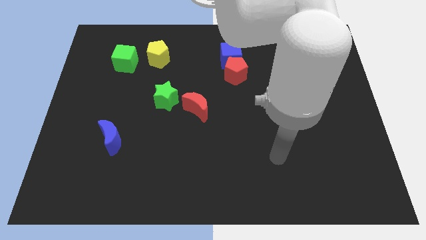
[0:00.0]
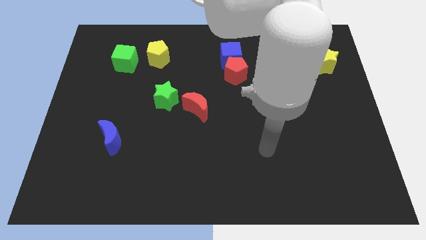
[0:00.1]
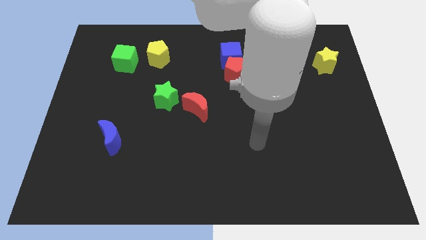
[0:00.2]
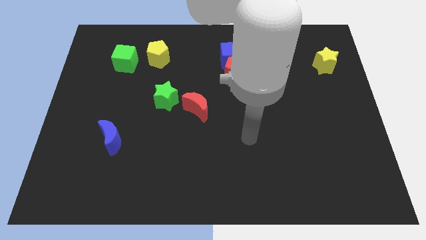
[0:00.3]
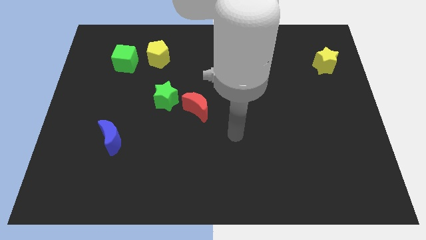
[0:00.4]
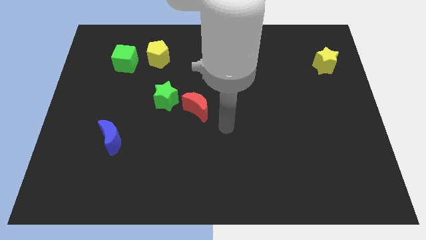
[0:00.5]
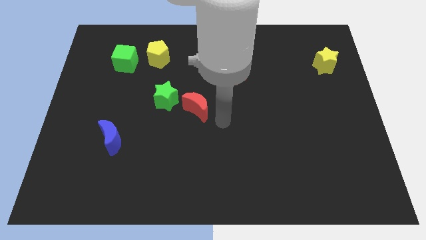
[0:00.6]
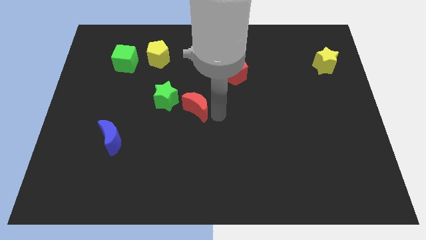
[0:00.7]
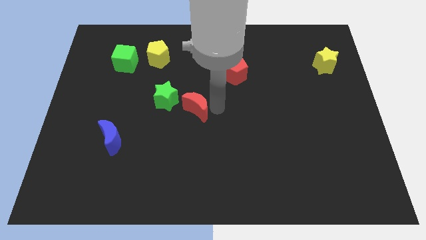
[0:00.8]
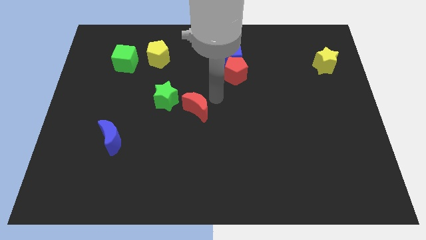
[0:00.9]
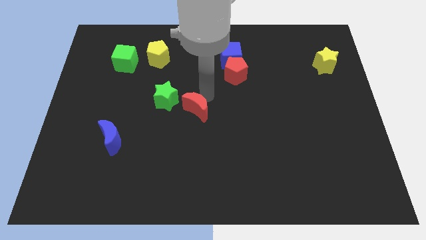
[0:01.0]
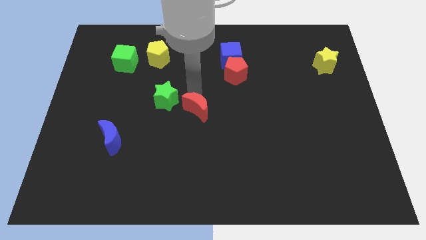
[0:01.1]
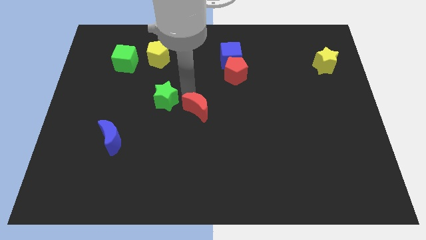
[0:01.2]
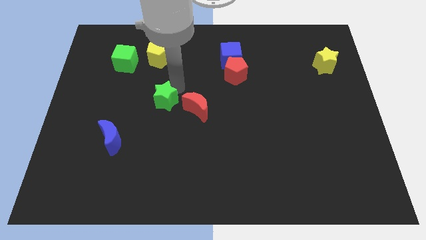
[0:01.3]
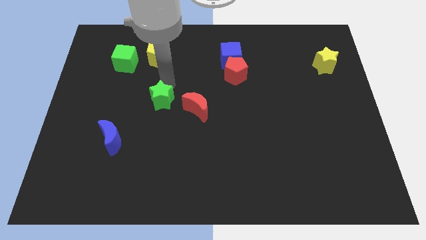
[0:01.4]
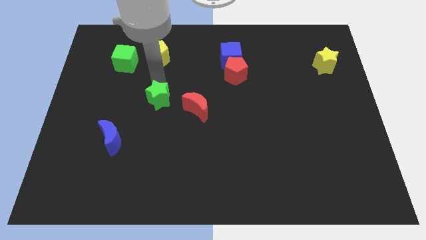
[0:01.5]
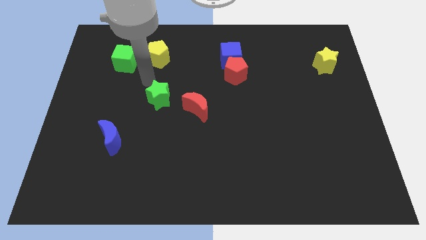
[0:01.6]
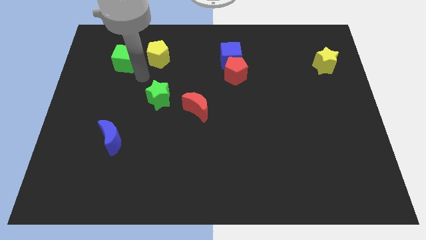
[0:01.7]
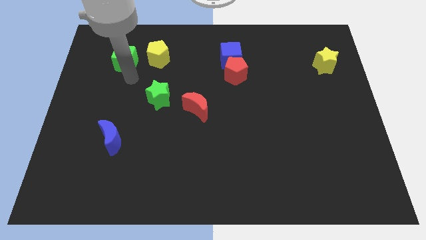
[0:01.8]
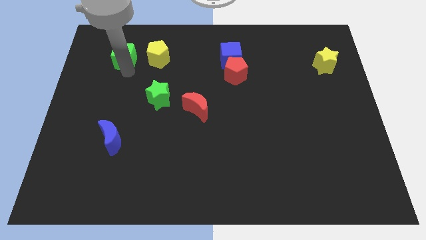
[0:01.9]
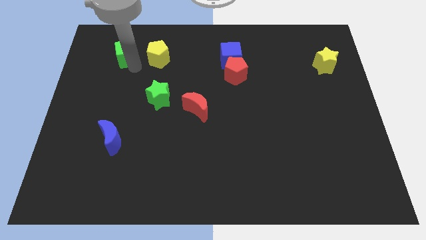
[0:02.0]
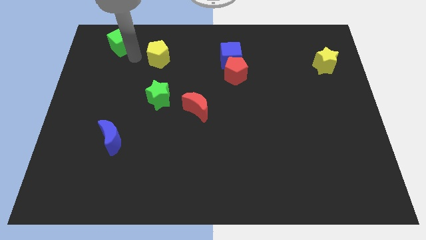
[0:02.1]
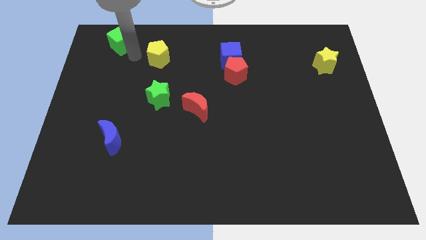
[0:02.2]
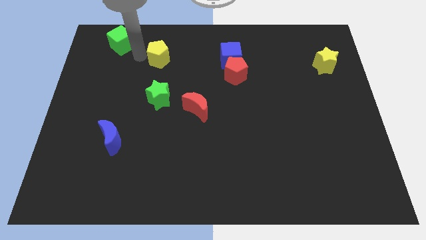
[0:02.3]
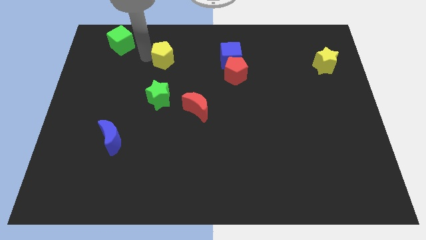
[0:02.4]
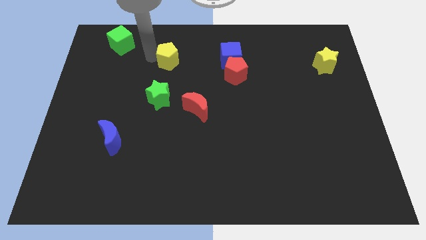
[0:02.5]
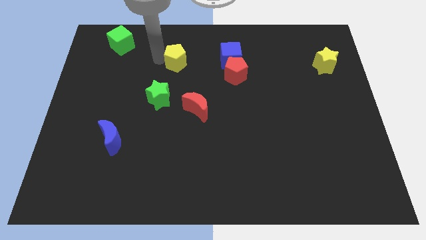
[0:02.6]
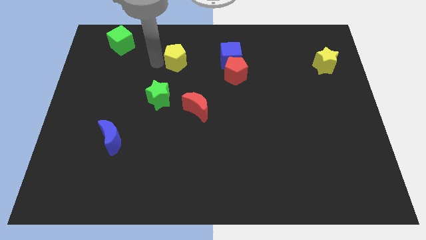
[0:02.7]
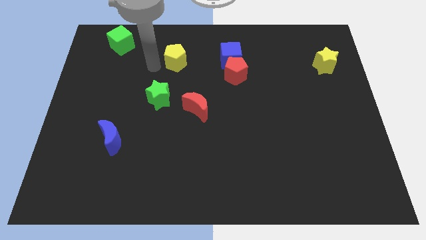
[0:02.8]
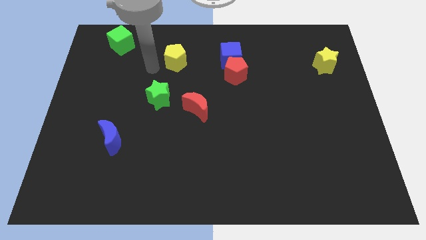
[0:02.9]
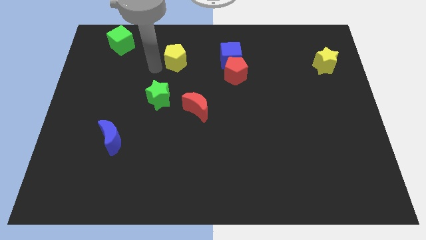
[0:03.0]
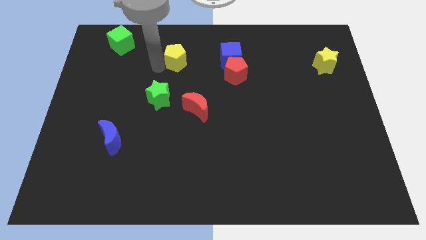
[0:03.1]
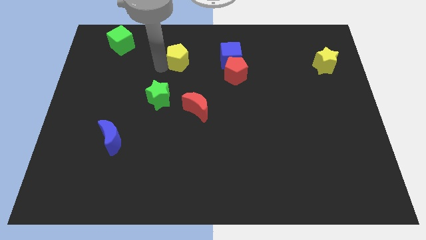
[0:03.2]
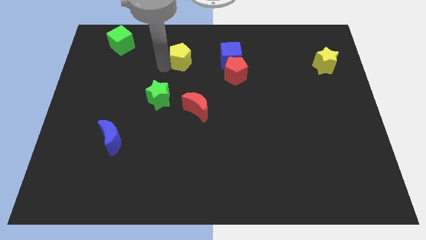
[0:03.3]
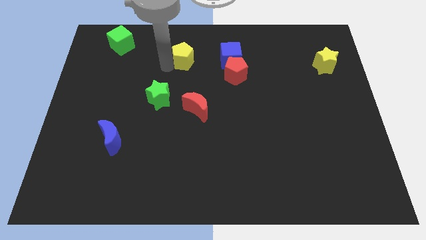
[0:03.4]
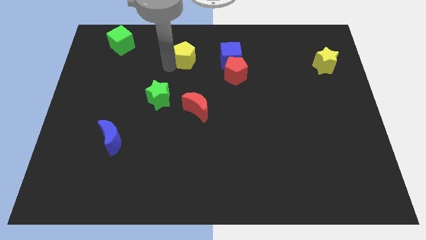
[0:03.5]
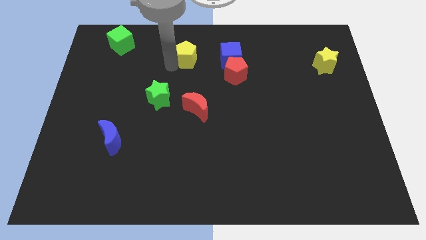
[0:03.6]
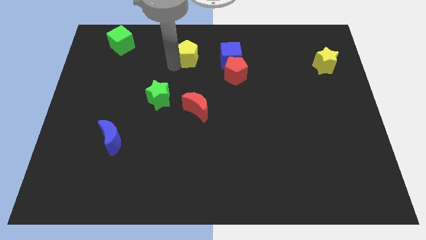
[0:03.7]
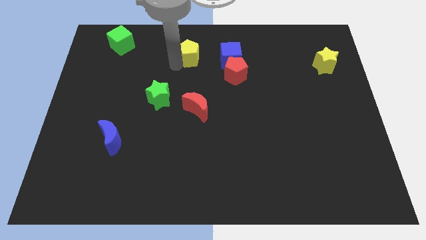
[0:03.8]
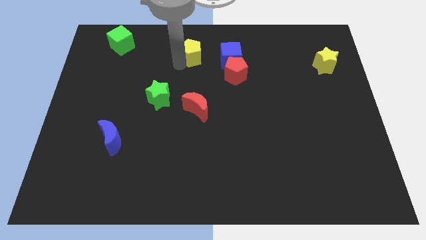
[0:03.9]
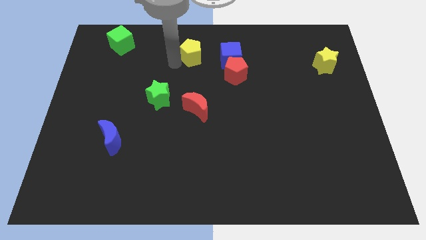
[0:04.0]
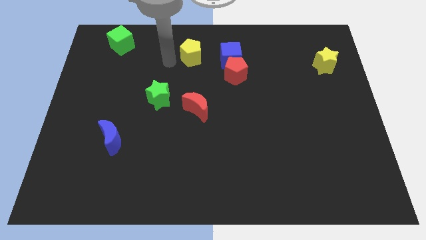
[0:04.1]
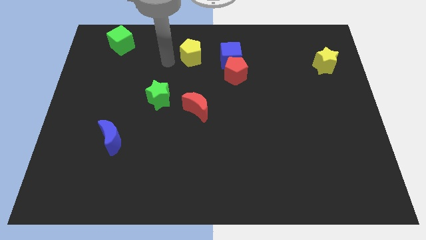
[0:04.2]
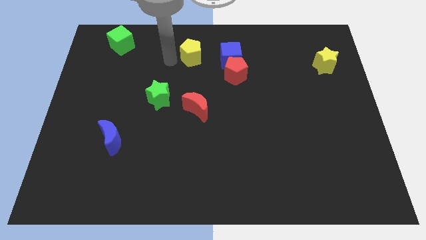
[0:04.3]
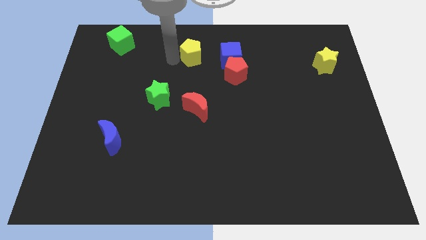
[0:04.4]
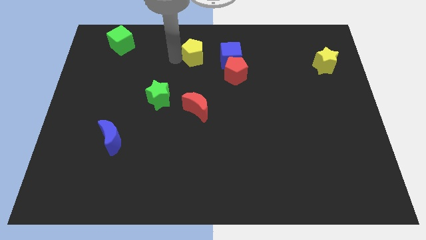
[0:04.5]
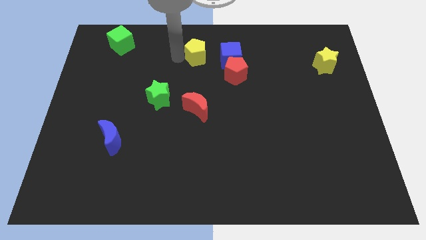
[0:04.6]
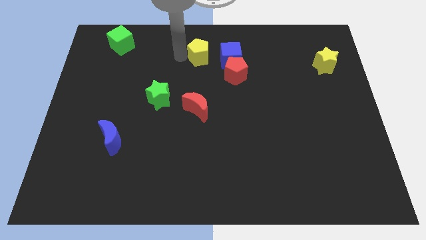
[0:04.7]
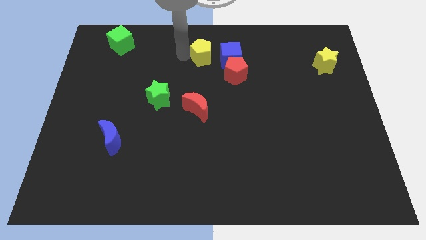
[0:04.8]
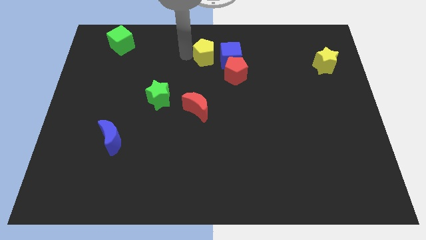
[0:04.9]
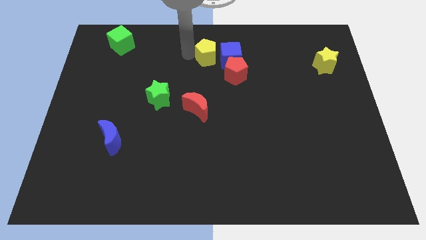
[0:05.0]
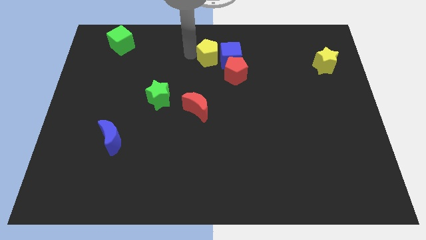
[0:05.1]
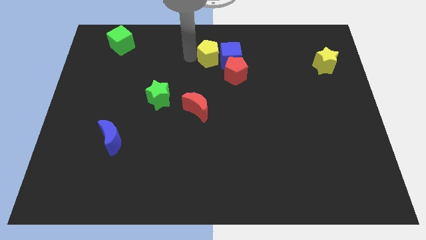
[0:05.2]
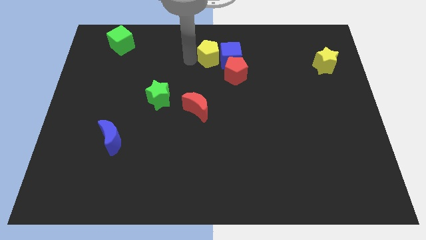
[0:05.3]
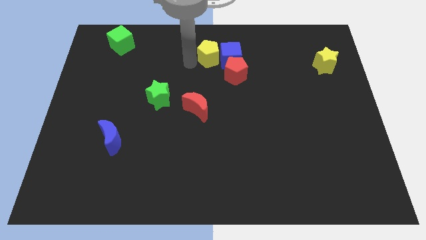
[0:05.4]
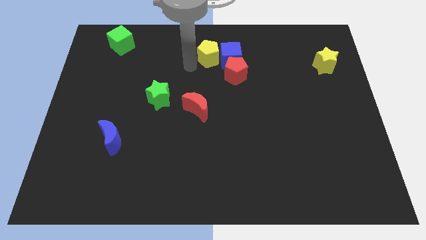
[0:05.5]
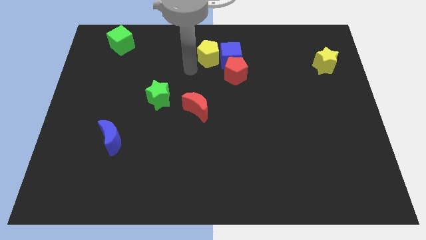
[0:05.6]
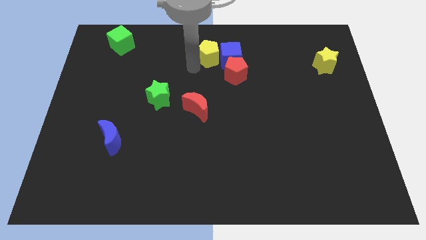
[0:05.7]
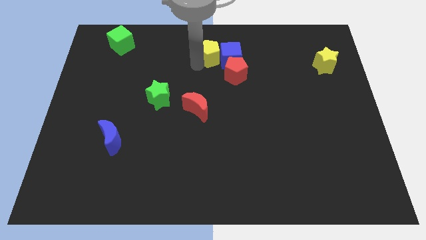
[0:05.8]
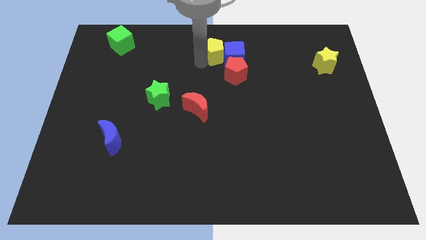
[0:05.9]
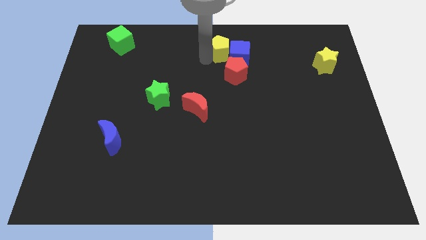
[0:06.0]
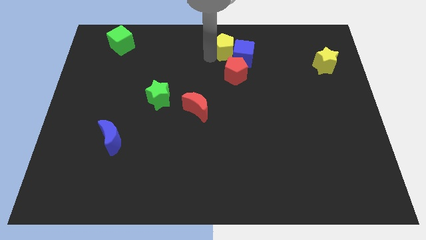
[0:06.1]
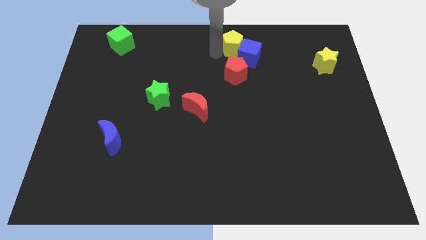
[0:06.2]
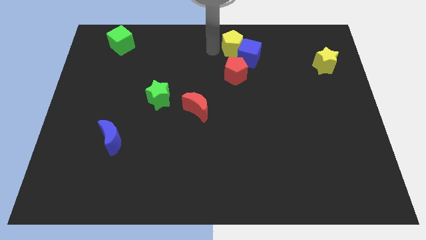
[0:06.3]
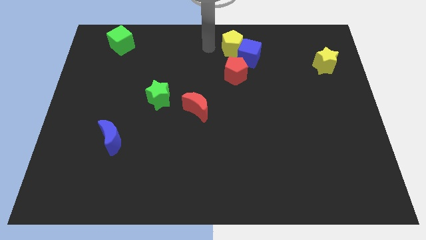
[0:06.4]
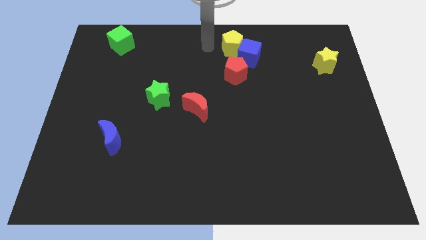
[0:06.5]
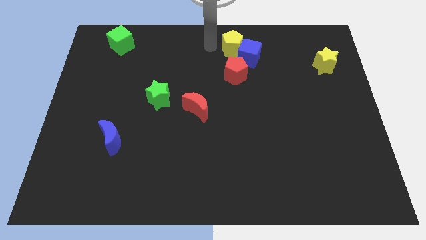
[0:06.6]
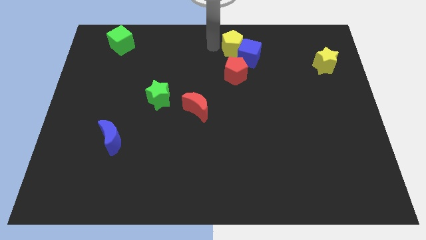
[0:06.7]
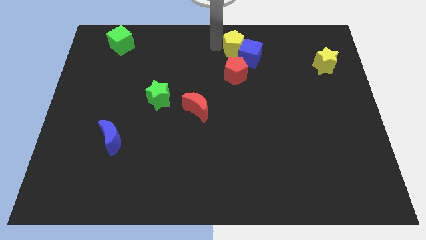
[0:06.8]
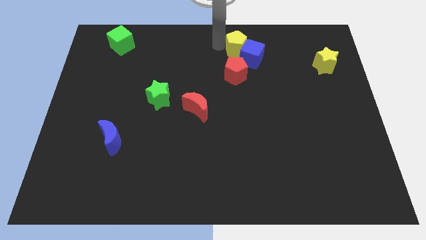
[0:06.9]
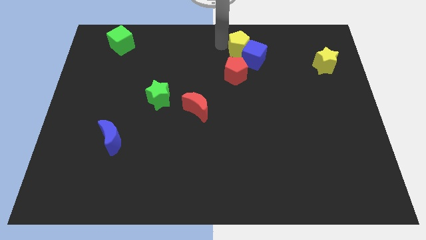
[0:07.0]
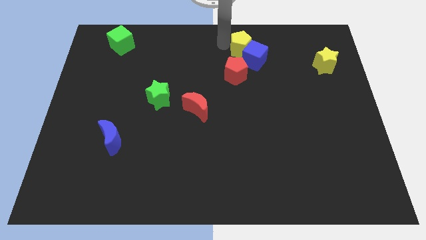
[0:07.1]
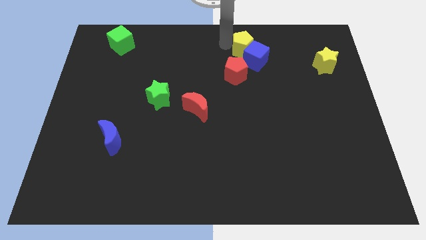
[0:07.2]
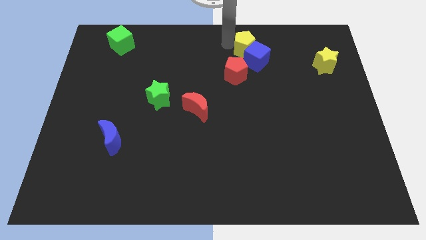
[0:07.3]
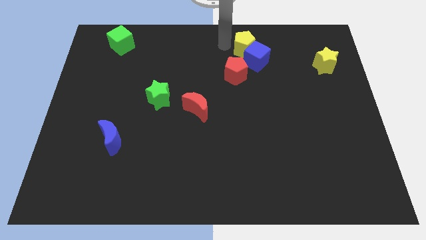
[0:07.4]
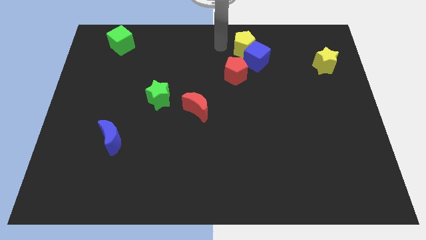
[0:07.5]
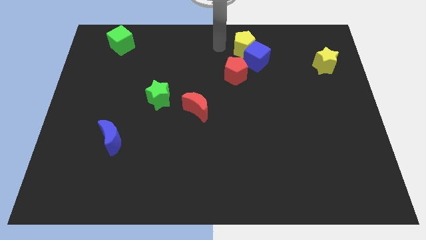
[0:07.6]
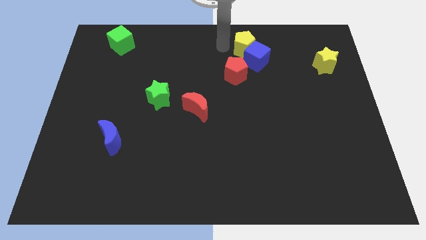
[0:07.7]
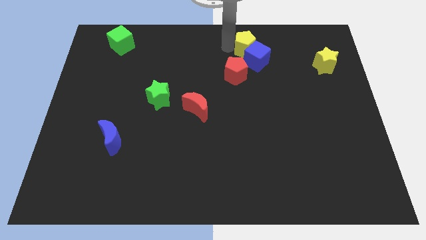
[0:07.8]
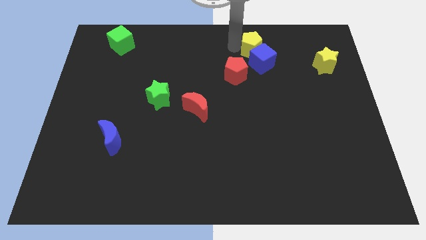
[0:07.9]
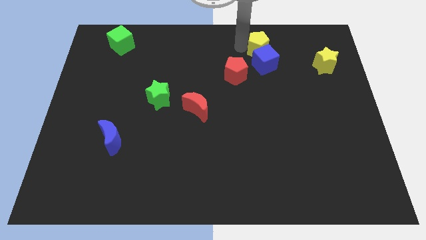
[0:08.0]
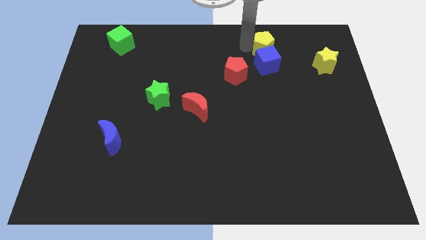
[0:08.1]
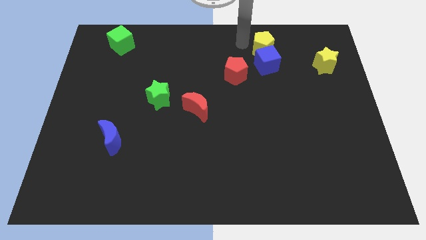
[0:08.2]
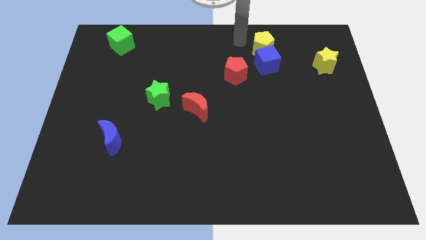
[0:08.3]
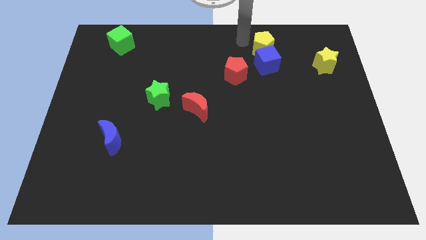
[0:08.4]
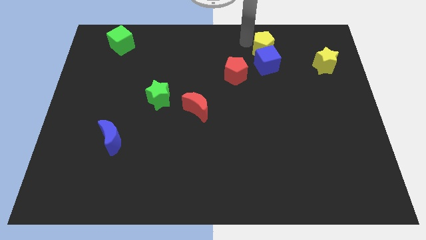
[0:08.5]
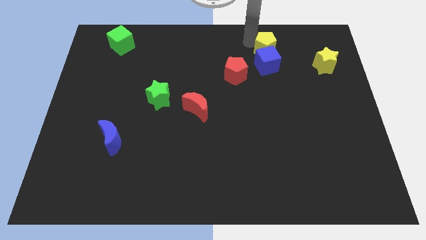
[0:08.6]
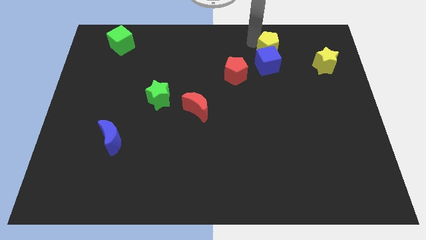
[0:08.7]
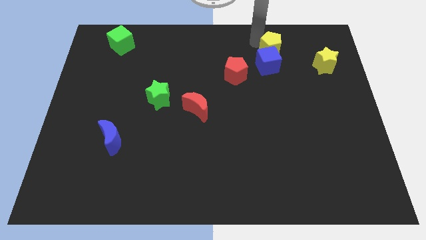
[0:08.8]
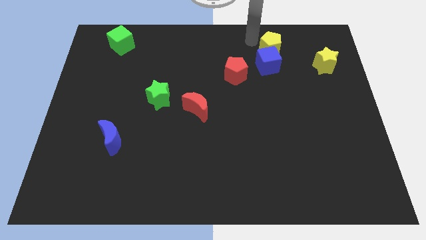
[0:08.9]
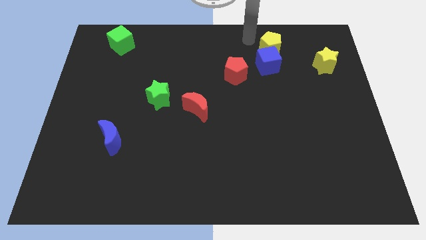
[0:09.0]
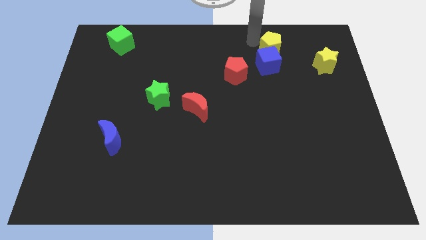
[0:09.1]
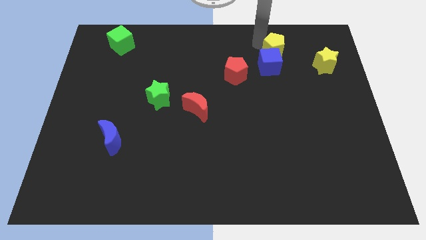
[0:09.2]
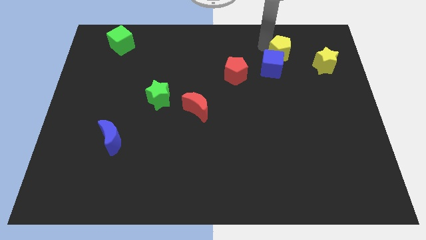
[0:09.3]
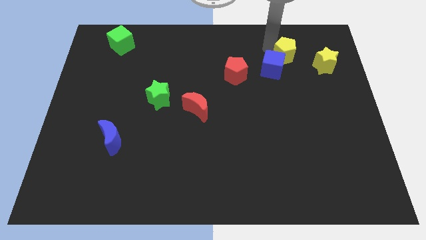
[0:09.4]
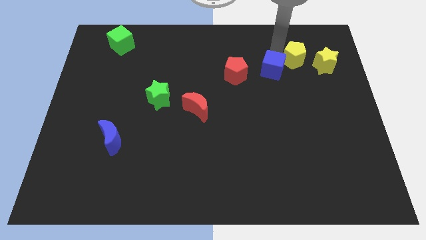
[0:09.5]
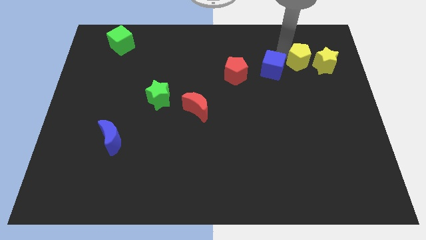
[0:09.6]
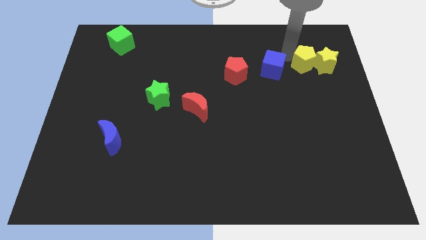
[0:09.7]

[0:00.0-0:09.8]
move the yellow pentagon next to the yellow star
